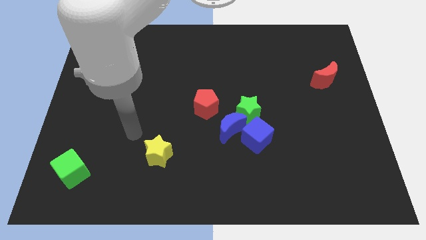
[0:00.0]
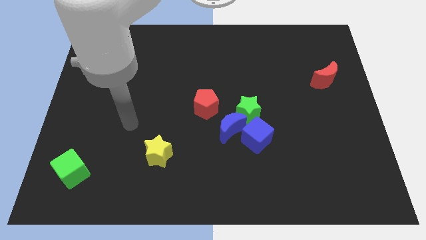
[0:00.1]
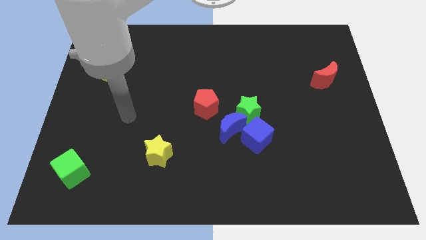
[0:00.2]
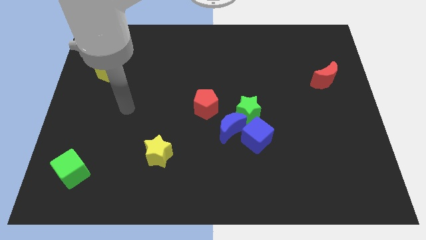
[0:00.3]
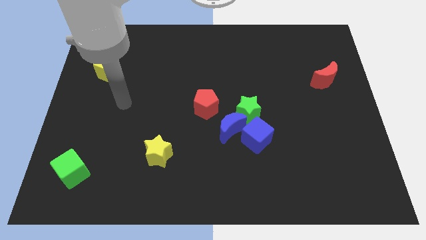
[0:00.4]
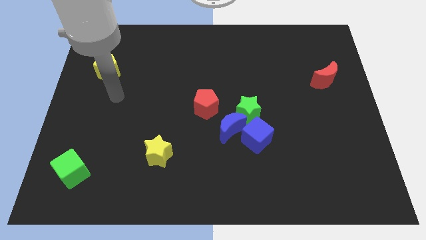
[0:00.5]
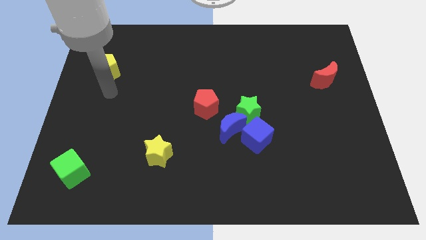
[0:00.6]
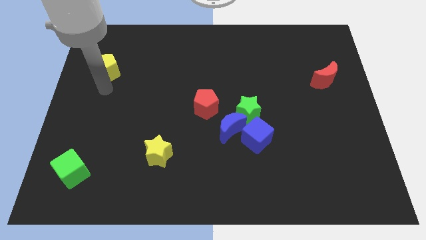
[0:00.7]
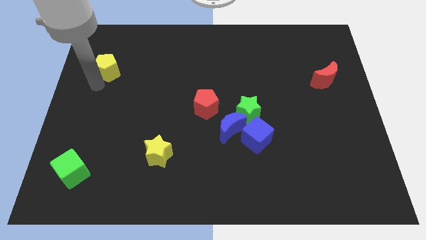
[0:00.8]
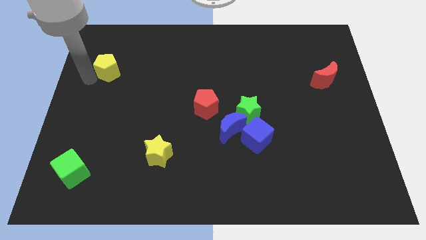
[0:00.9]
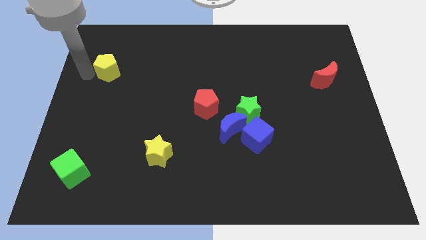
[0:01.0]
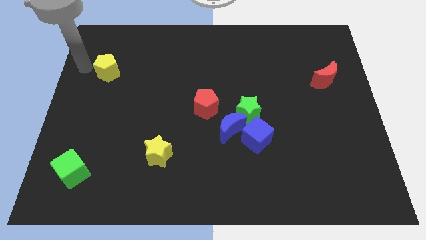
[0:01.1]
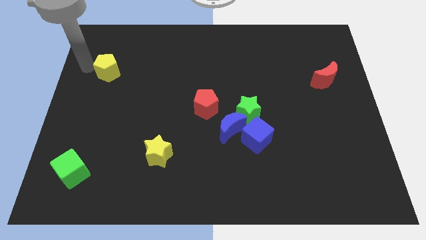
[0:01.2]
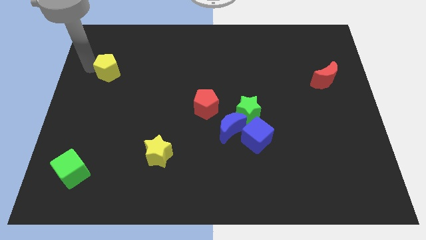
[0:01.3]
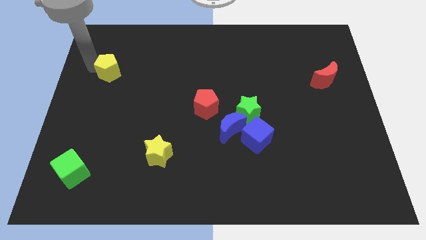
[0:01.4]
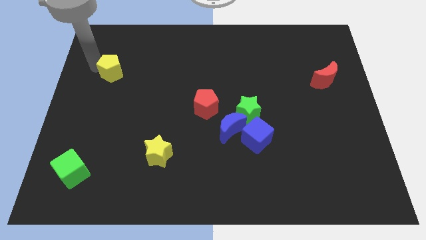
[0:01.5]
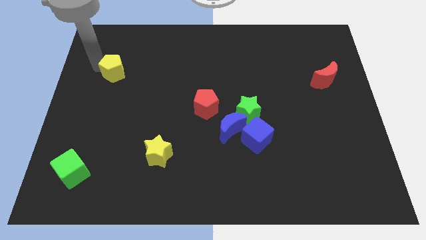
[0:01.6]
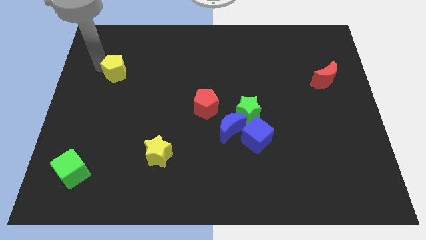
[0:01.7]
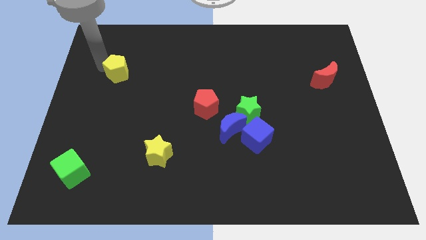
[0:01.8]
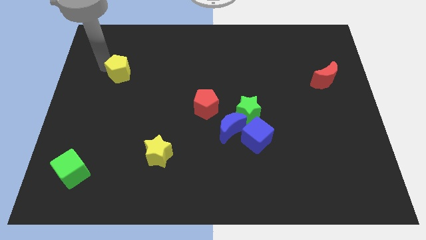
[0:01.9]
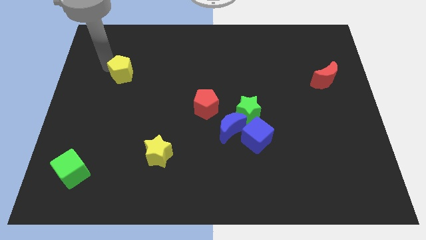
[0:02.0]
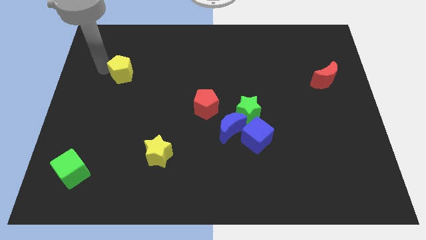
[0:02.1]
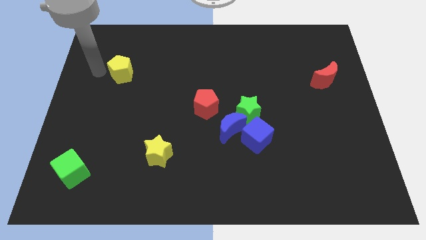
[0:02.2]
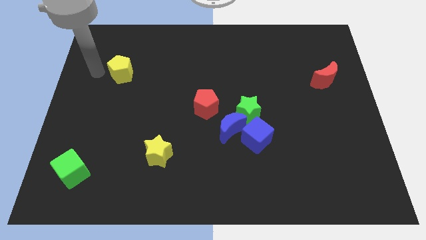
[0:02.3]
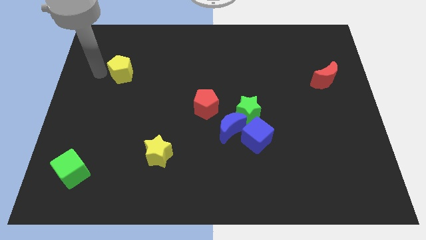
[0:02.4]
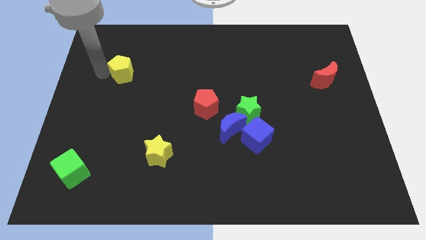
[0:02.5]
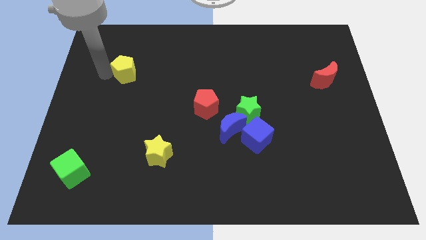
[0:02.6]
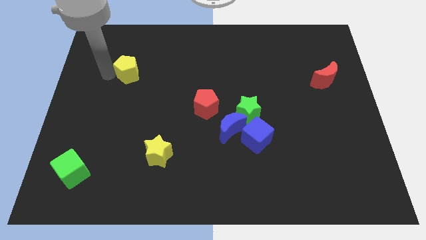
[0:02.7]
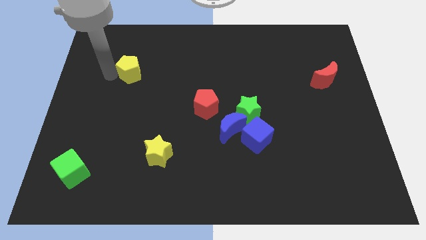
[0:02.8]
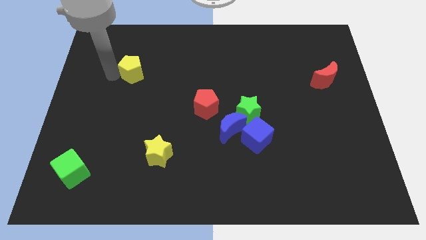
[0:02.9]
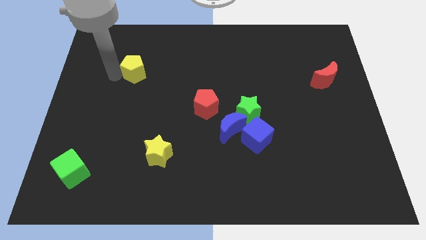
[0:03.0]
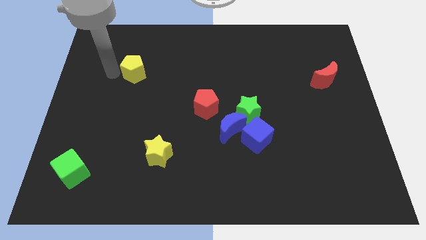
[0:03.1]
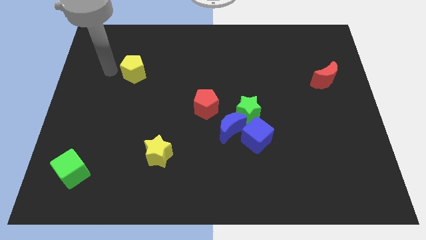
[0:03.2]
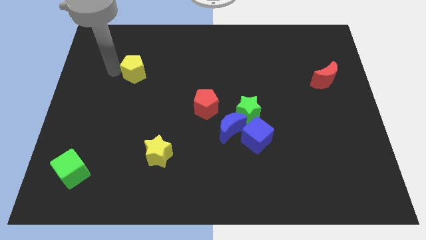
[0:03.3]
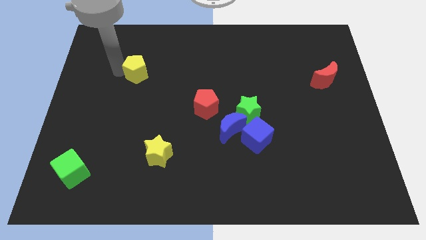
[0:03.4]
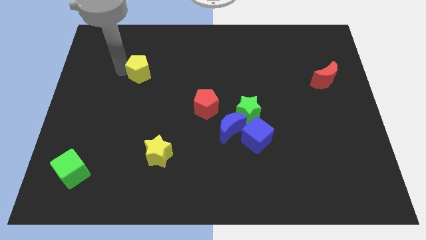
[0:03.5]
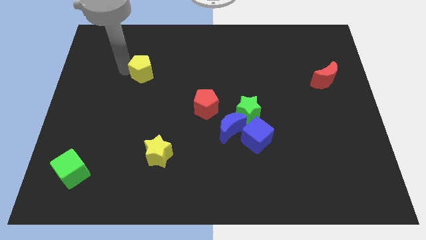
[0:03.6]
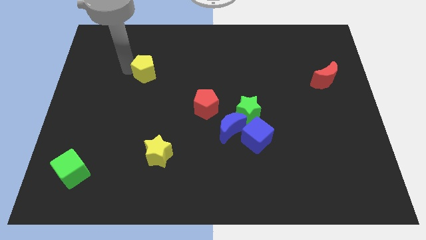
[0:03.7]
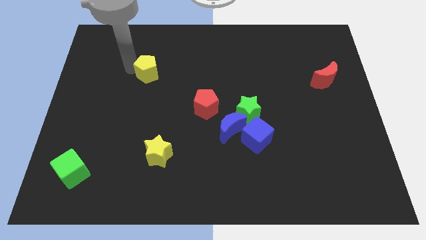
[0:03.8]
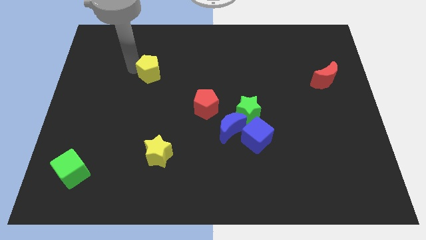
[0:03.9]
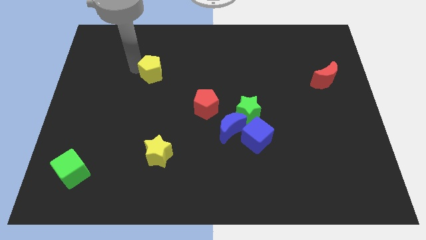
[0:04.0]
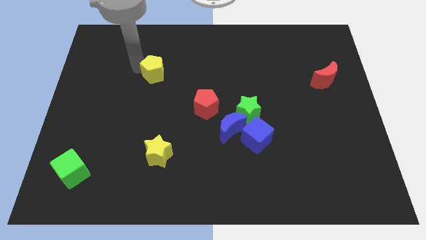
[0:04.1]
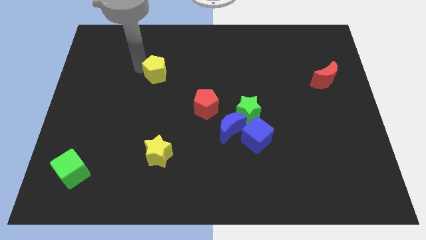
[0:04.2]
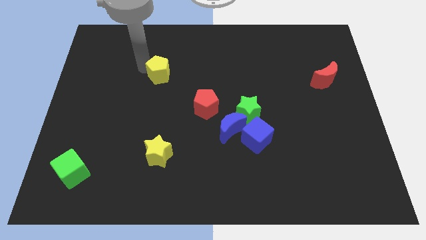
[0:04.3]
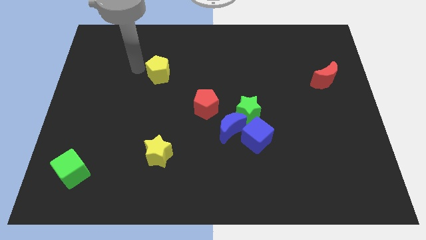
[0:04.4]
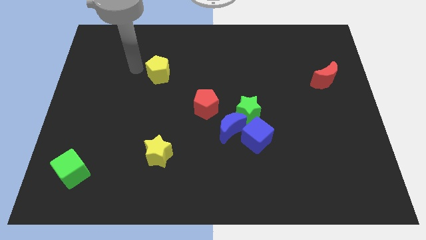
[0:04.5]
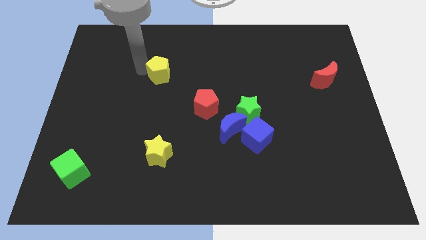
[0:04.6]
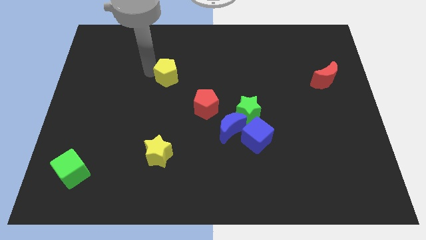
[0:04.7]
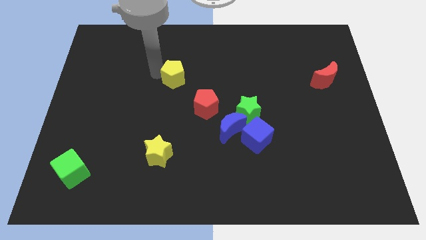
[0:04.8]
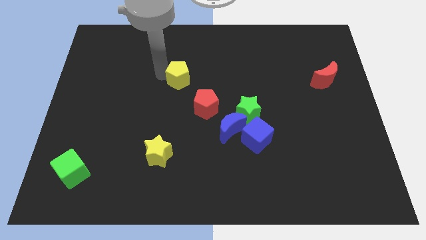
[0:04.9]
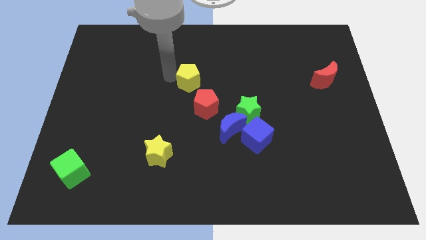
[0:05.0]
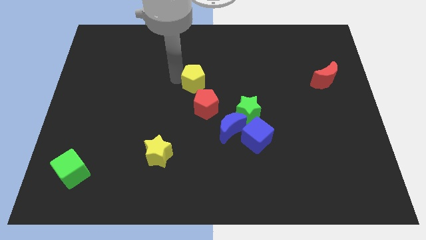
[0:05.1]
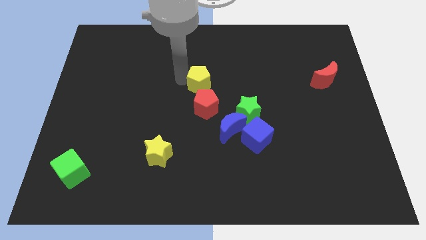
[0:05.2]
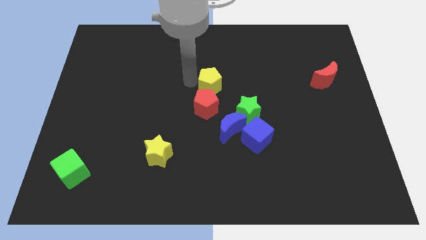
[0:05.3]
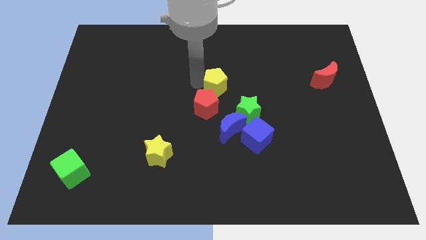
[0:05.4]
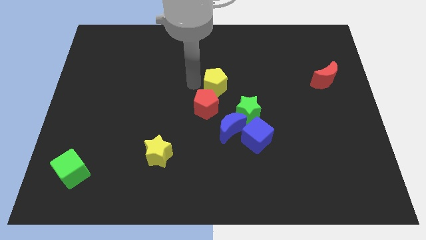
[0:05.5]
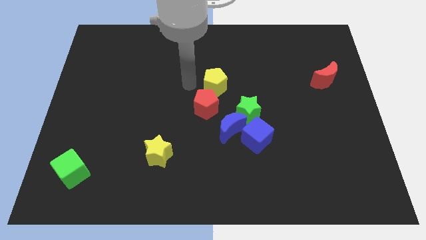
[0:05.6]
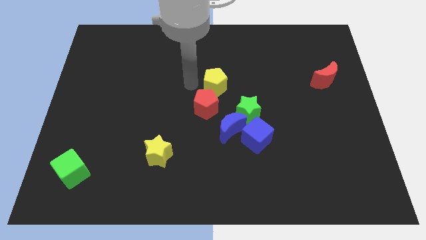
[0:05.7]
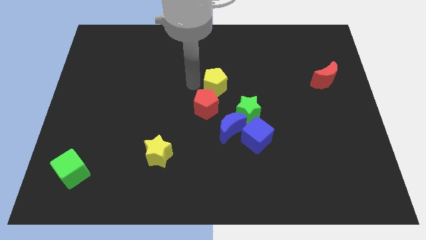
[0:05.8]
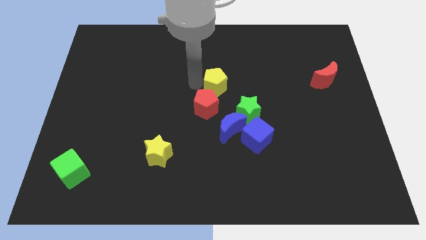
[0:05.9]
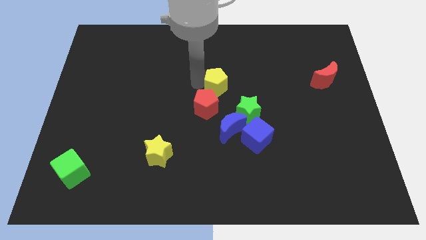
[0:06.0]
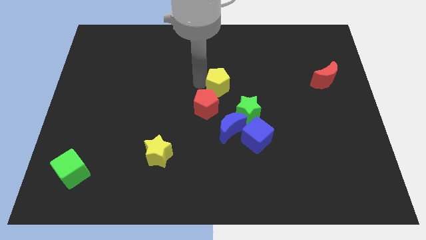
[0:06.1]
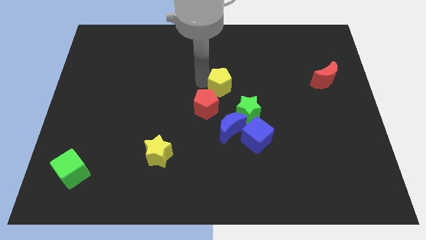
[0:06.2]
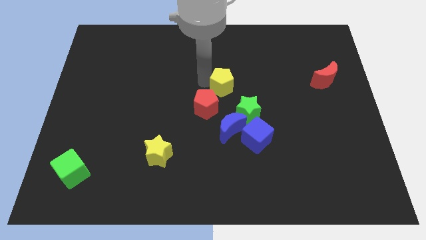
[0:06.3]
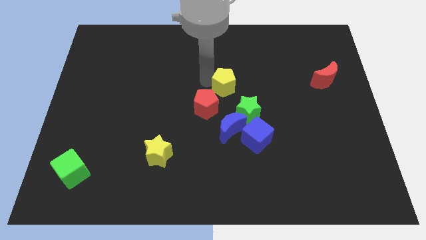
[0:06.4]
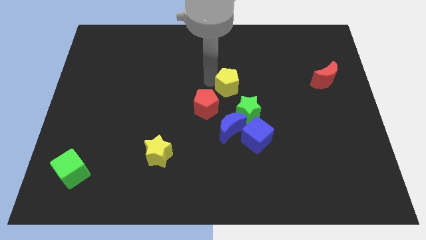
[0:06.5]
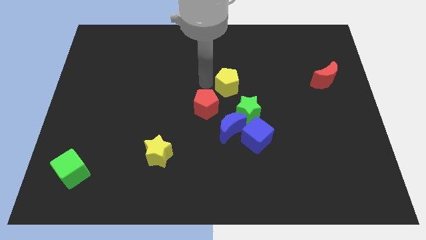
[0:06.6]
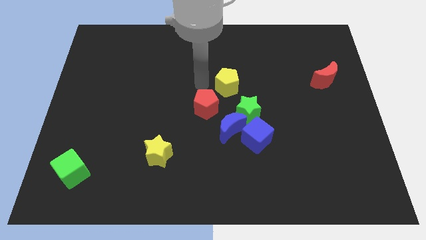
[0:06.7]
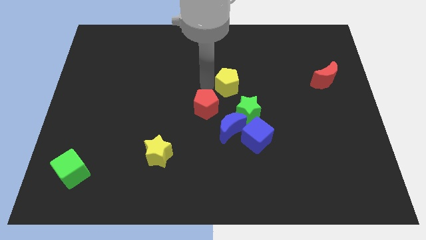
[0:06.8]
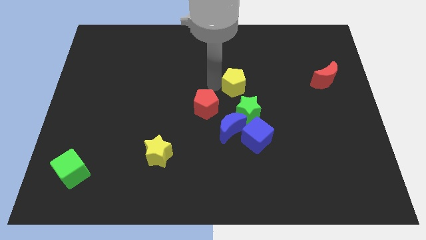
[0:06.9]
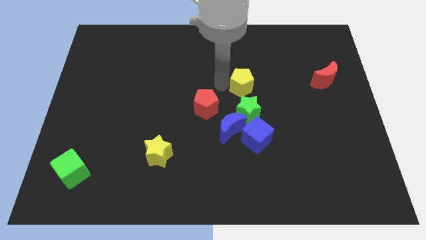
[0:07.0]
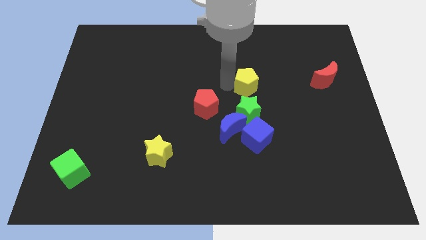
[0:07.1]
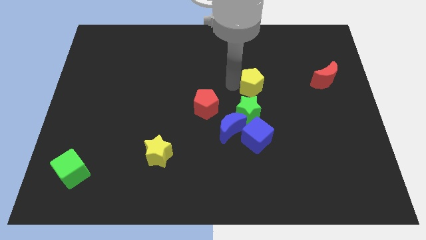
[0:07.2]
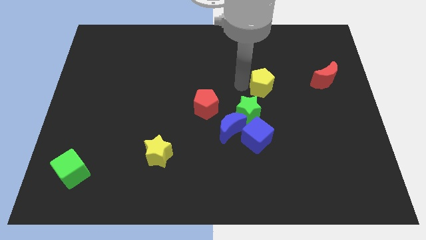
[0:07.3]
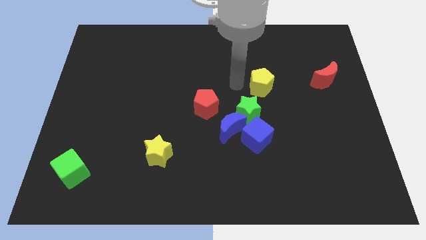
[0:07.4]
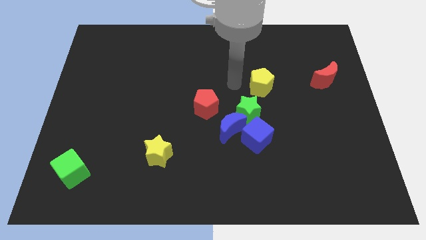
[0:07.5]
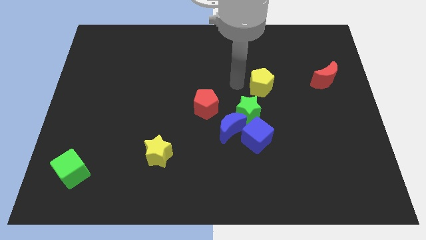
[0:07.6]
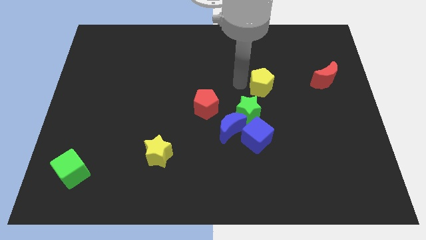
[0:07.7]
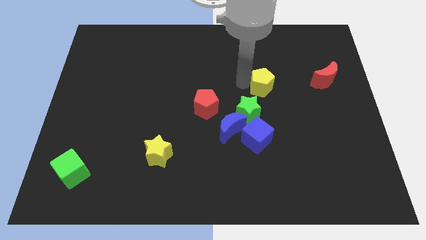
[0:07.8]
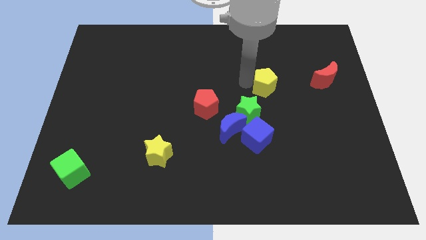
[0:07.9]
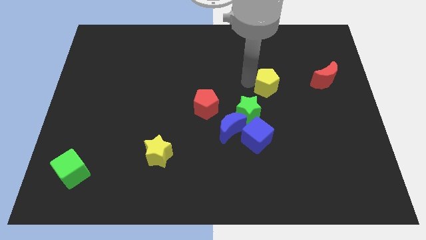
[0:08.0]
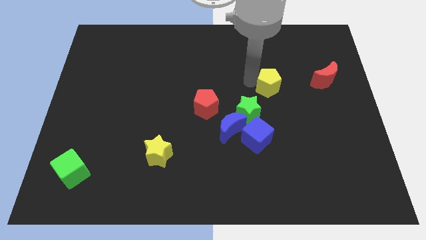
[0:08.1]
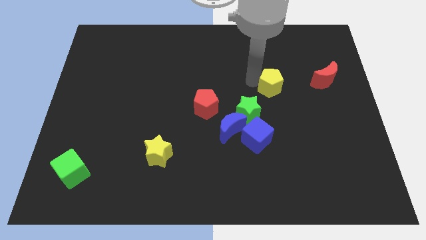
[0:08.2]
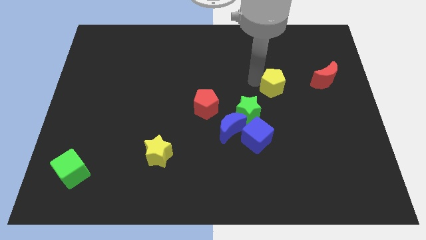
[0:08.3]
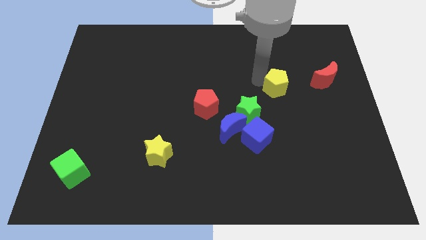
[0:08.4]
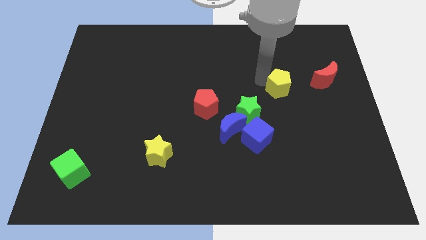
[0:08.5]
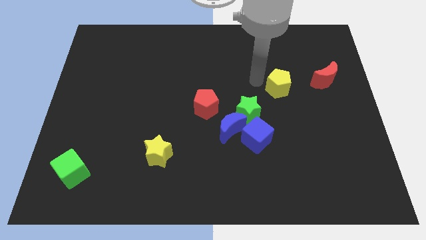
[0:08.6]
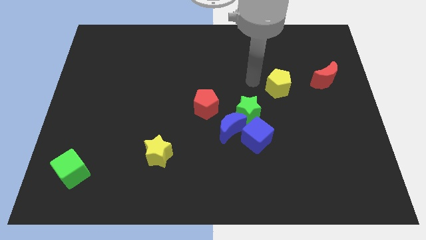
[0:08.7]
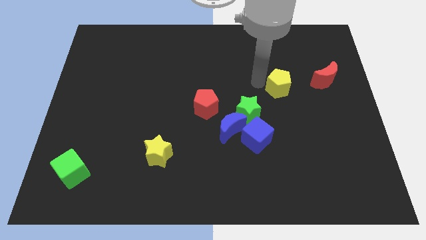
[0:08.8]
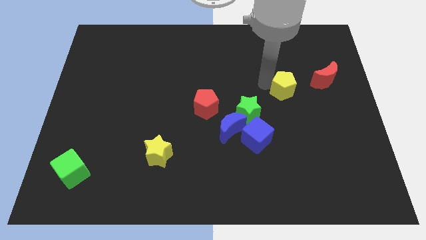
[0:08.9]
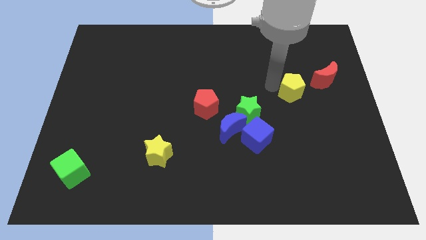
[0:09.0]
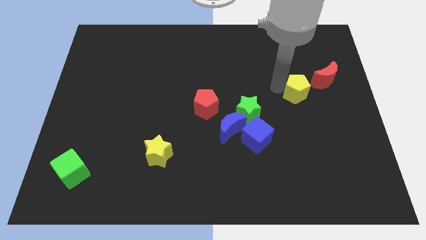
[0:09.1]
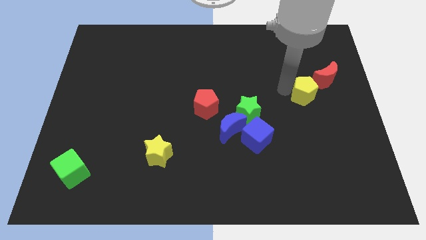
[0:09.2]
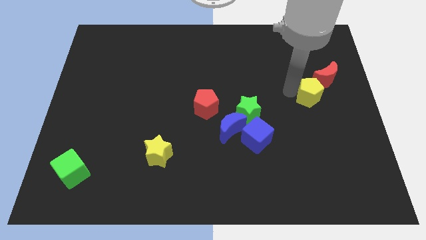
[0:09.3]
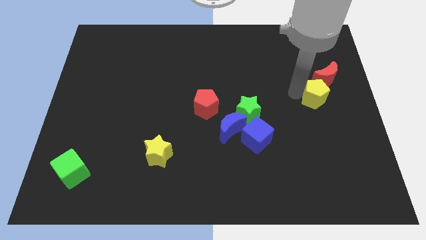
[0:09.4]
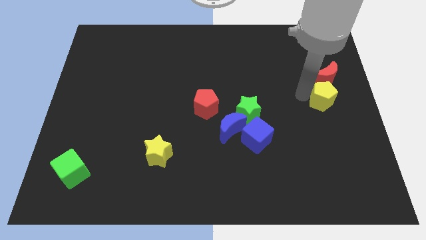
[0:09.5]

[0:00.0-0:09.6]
slide the yellow pentagon to the center right
